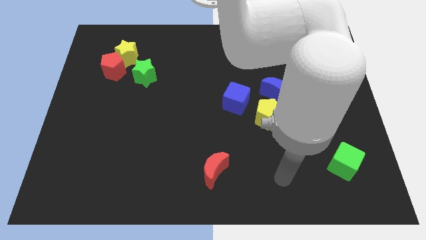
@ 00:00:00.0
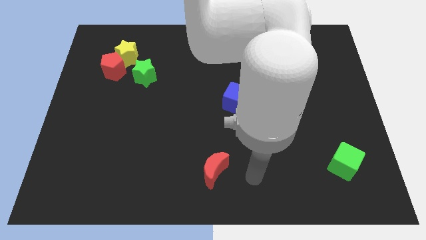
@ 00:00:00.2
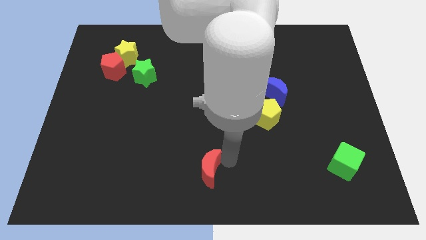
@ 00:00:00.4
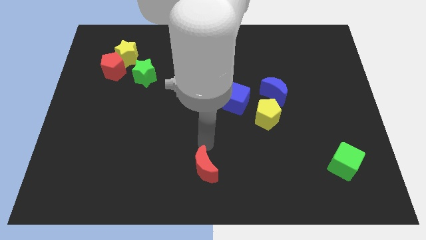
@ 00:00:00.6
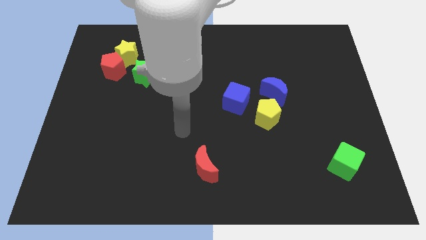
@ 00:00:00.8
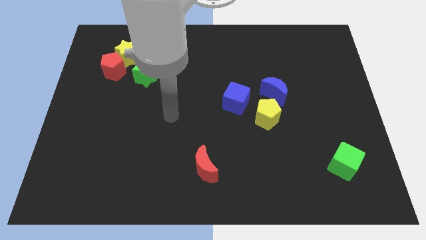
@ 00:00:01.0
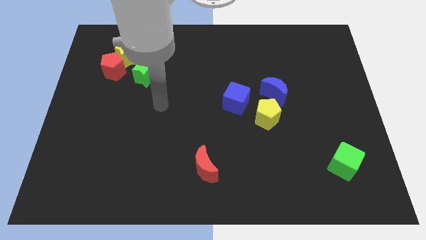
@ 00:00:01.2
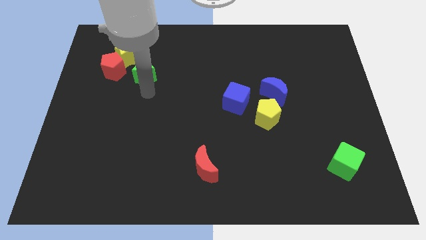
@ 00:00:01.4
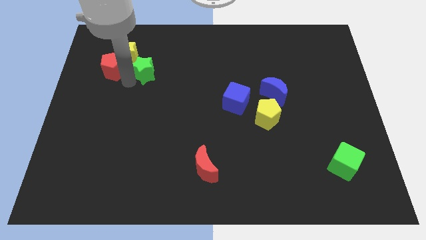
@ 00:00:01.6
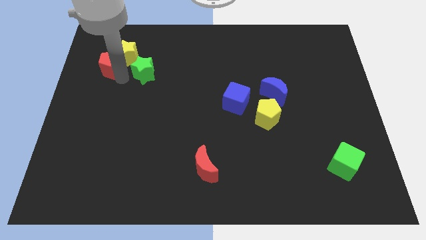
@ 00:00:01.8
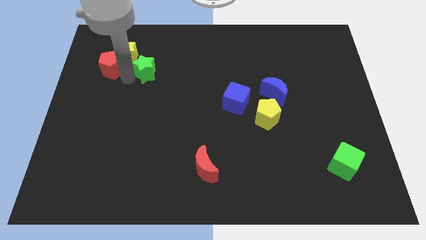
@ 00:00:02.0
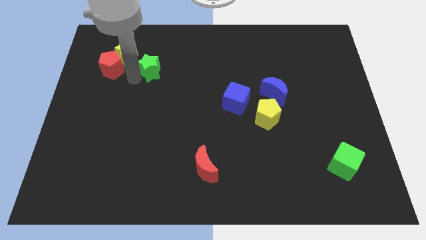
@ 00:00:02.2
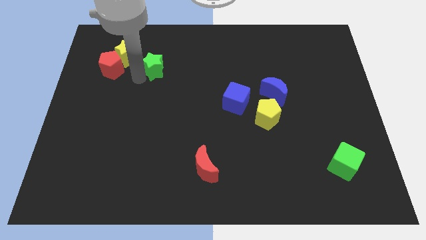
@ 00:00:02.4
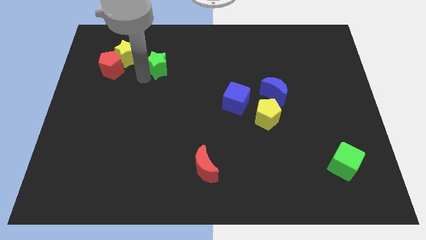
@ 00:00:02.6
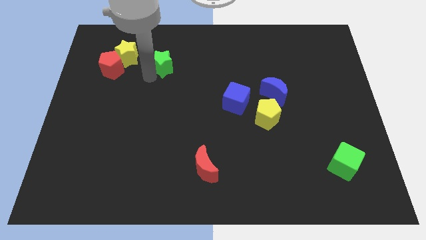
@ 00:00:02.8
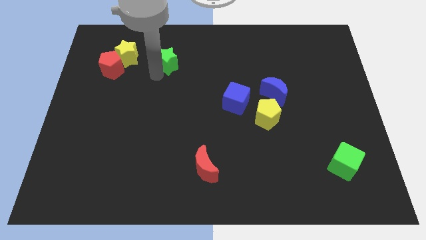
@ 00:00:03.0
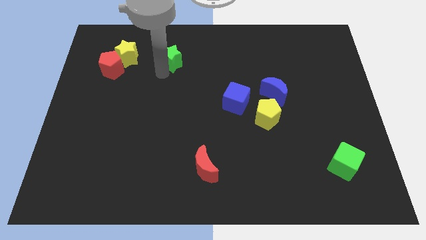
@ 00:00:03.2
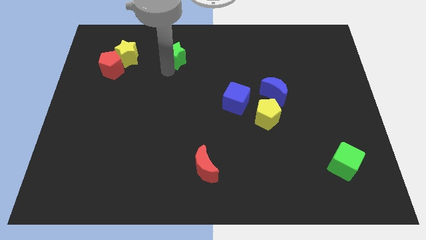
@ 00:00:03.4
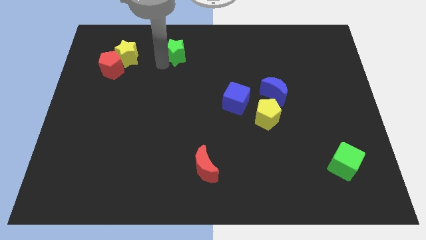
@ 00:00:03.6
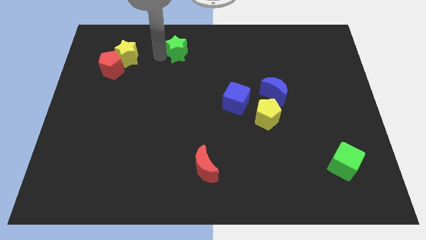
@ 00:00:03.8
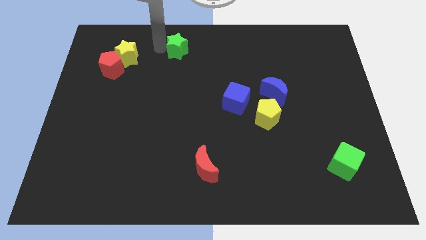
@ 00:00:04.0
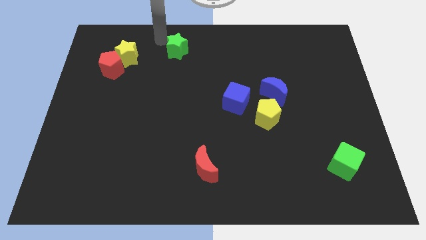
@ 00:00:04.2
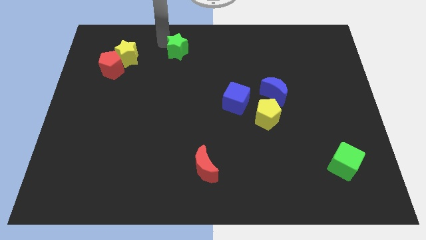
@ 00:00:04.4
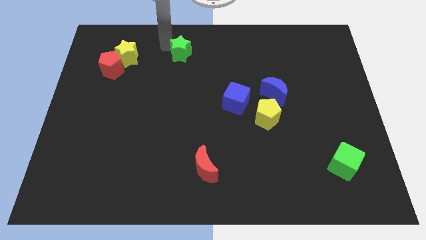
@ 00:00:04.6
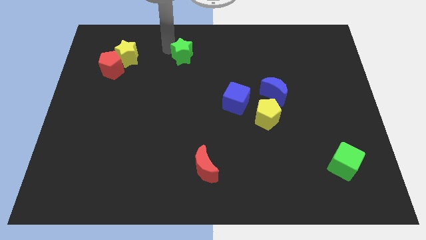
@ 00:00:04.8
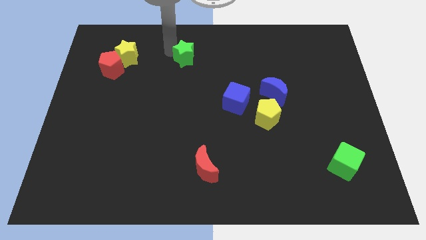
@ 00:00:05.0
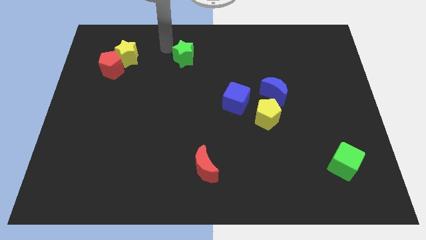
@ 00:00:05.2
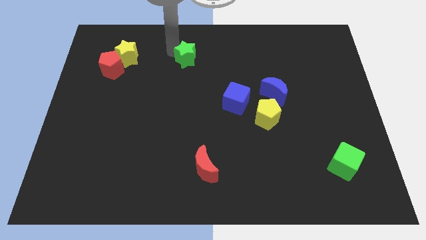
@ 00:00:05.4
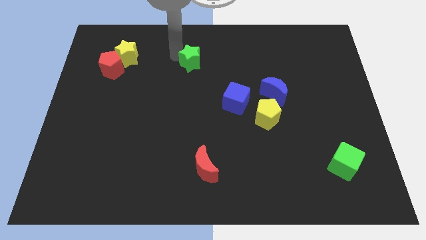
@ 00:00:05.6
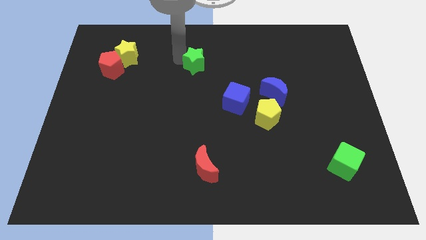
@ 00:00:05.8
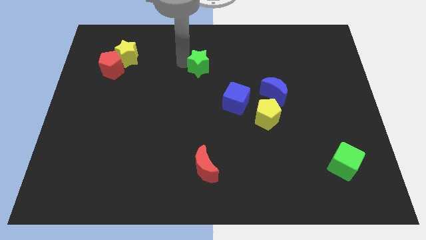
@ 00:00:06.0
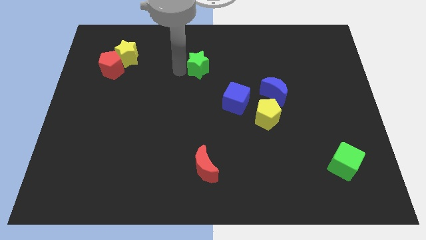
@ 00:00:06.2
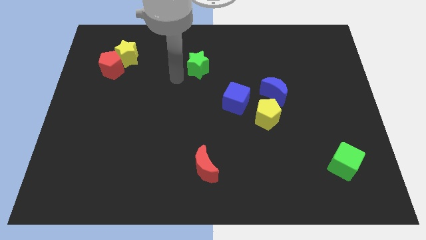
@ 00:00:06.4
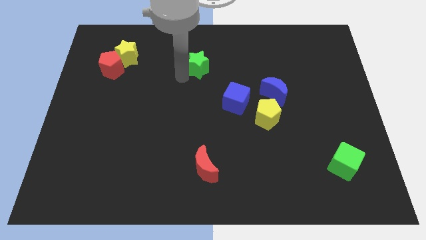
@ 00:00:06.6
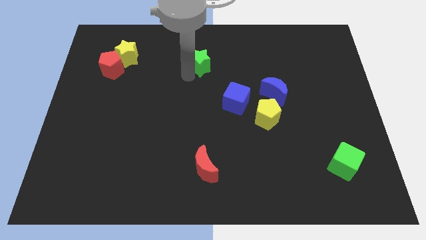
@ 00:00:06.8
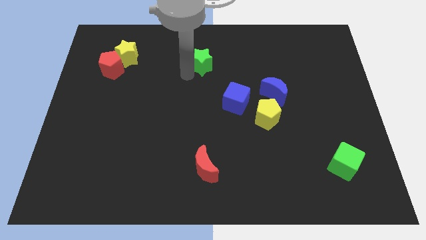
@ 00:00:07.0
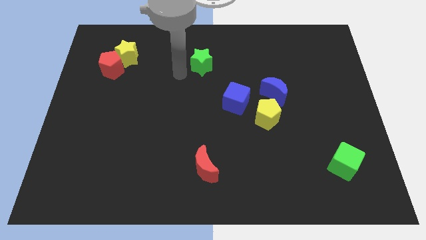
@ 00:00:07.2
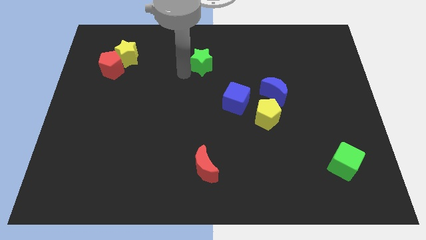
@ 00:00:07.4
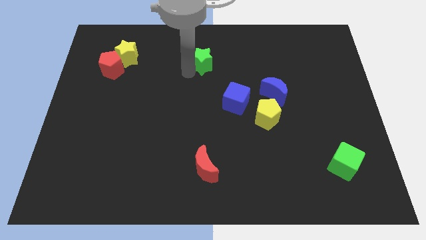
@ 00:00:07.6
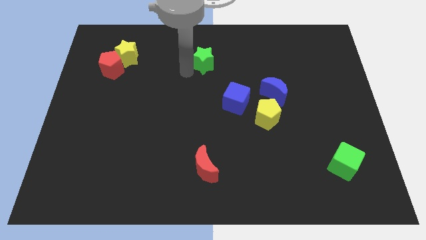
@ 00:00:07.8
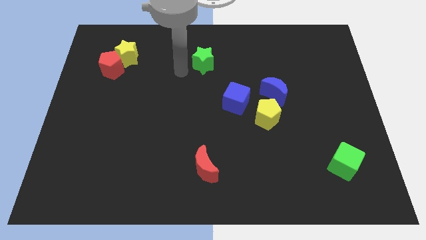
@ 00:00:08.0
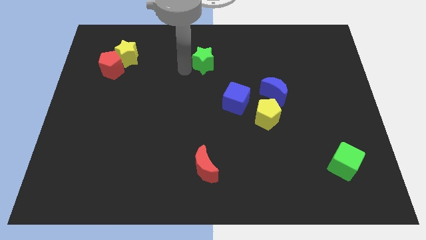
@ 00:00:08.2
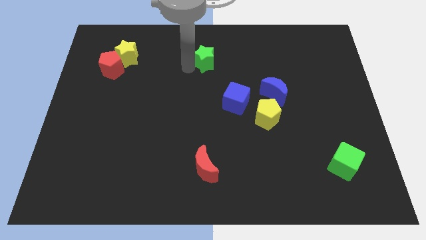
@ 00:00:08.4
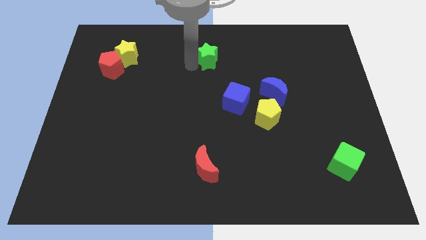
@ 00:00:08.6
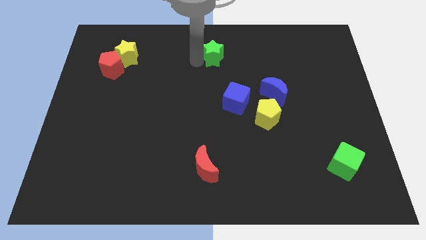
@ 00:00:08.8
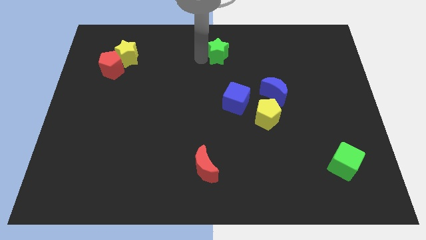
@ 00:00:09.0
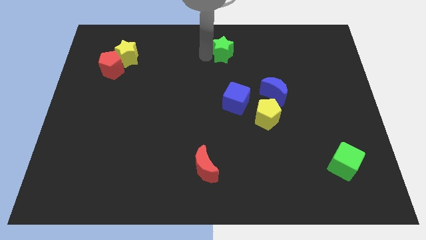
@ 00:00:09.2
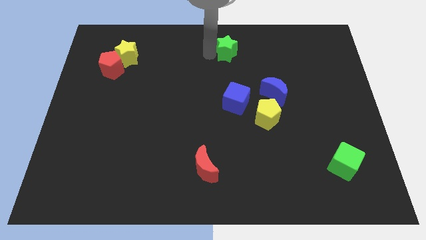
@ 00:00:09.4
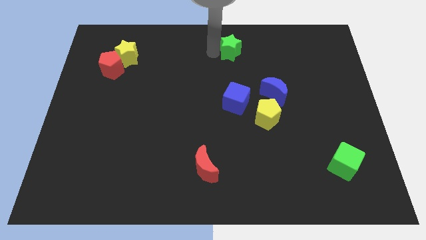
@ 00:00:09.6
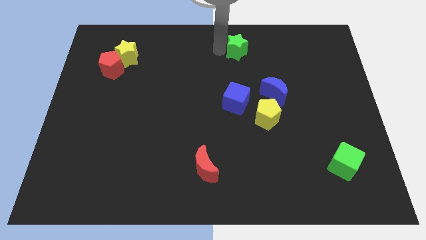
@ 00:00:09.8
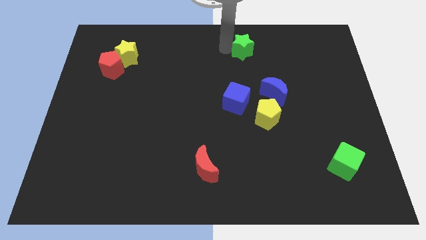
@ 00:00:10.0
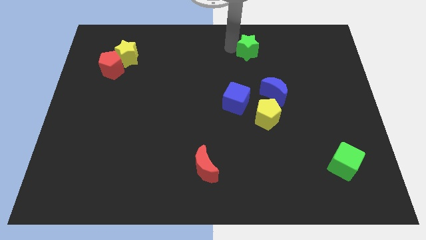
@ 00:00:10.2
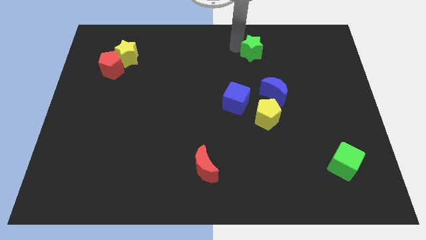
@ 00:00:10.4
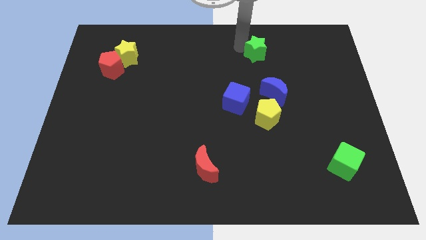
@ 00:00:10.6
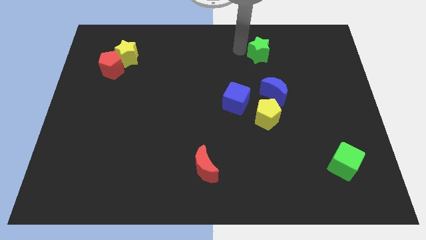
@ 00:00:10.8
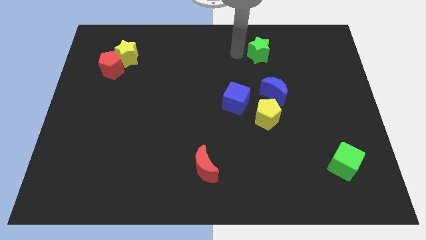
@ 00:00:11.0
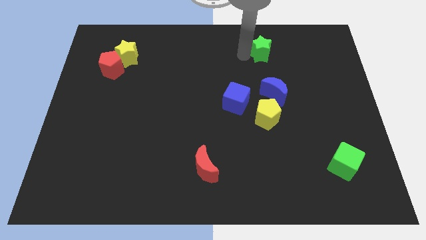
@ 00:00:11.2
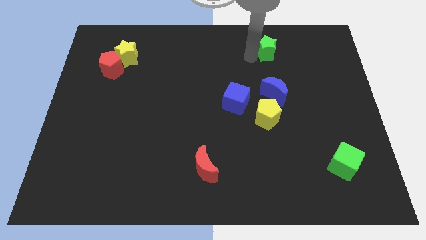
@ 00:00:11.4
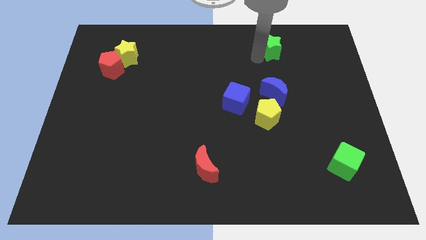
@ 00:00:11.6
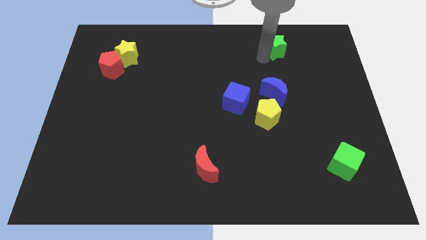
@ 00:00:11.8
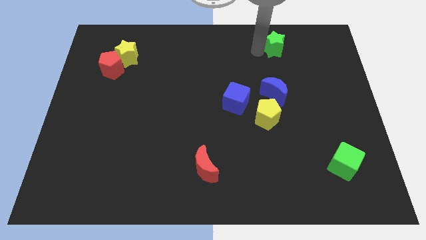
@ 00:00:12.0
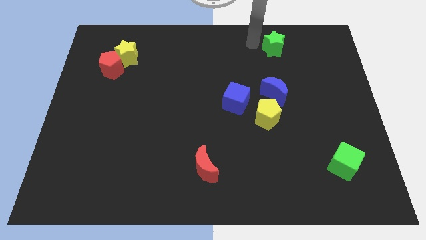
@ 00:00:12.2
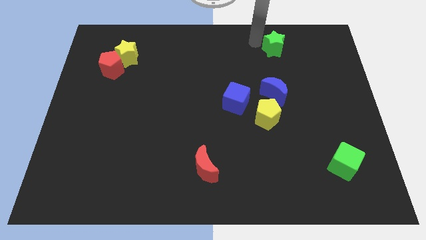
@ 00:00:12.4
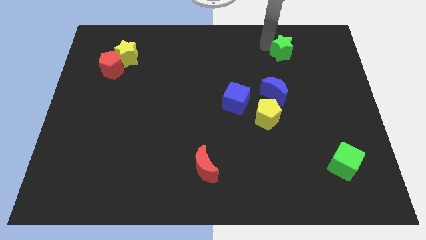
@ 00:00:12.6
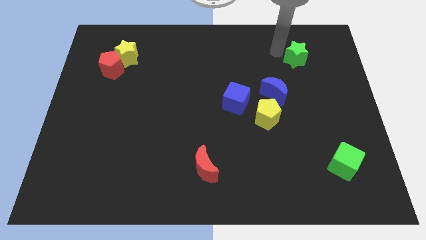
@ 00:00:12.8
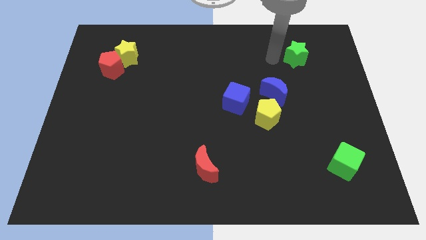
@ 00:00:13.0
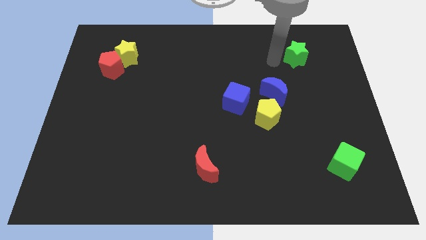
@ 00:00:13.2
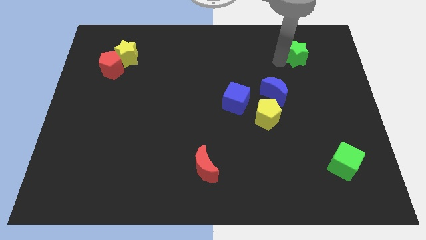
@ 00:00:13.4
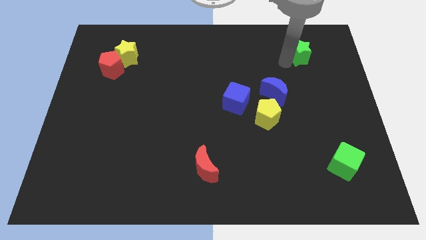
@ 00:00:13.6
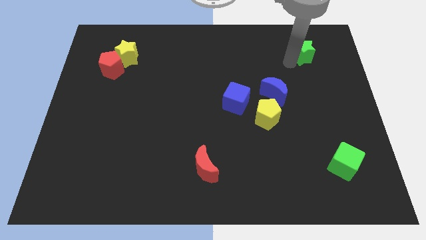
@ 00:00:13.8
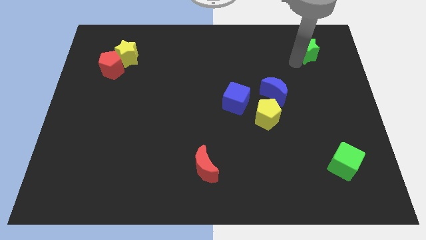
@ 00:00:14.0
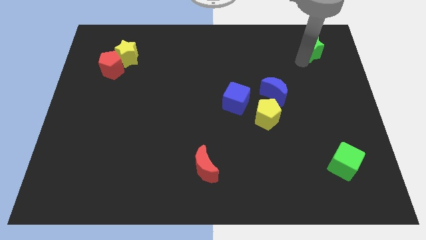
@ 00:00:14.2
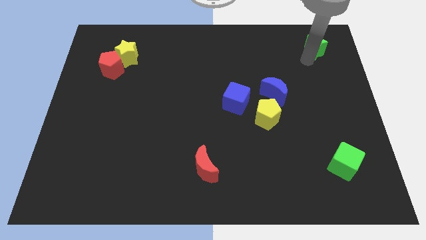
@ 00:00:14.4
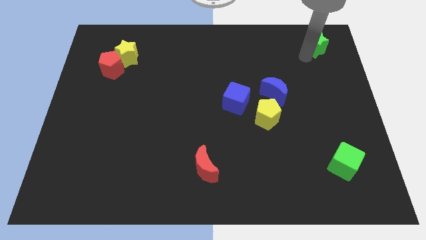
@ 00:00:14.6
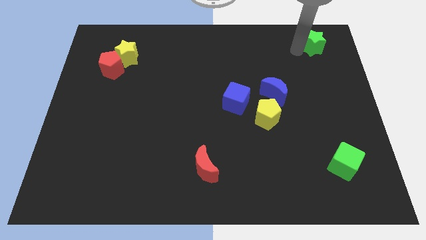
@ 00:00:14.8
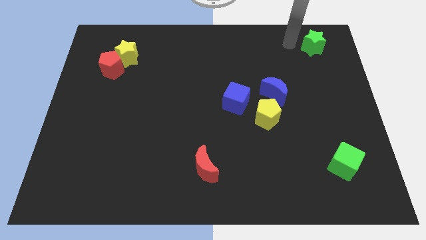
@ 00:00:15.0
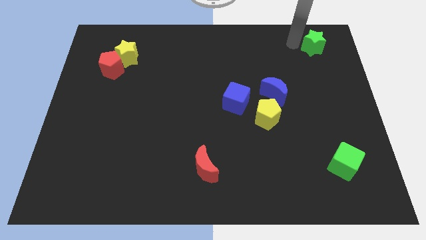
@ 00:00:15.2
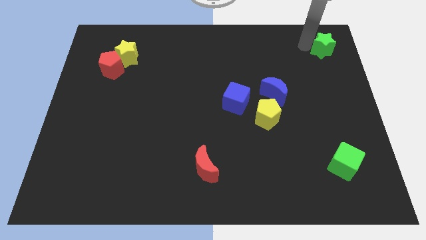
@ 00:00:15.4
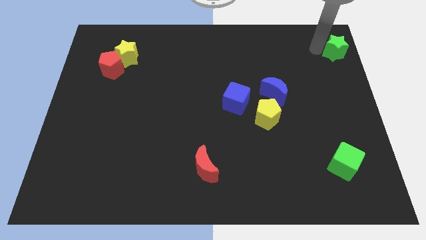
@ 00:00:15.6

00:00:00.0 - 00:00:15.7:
slide the green star to the top right corner
